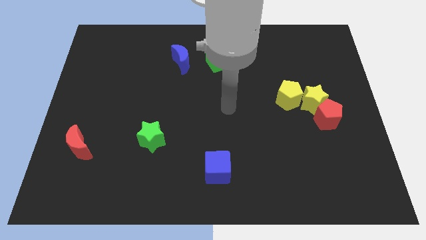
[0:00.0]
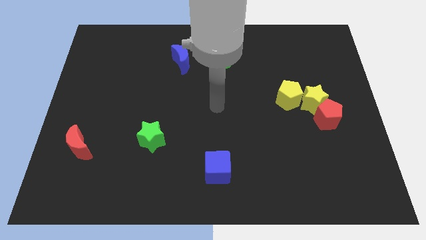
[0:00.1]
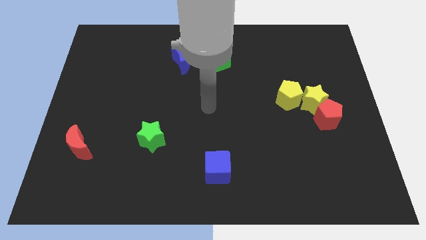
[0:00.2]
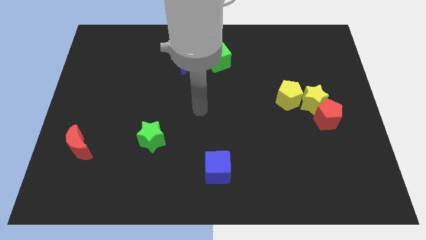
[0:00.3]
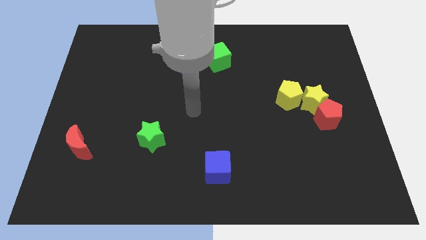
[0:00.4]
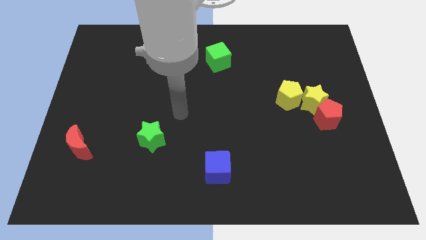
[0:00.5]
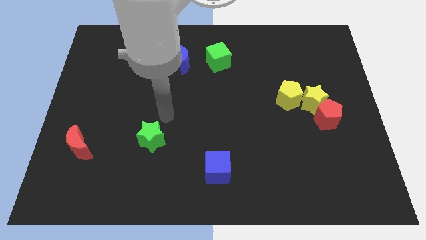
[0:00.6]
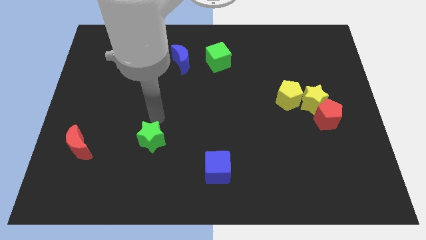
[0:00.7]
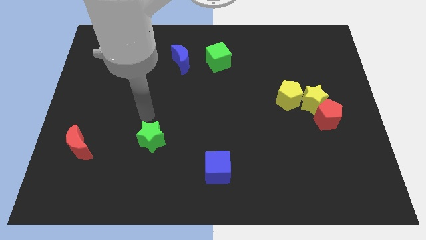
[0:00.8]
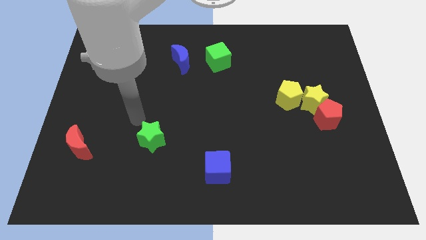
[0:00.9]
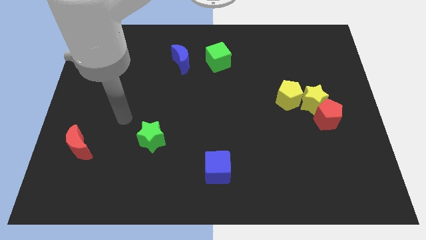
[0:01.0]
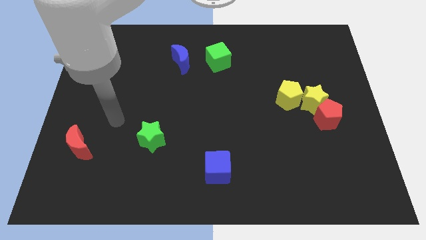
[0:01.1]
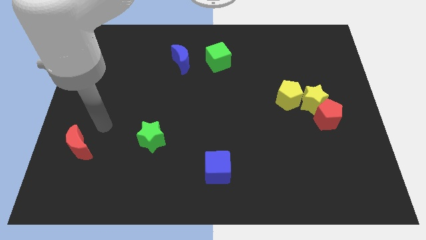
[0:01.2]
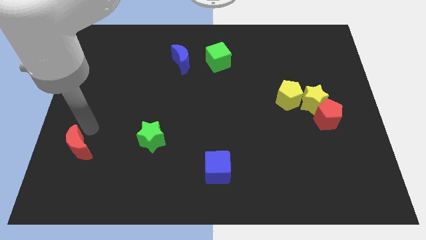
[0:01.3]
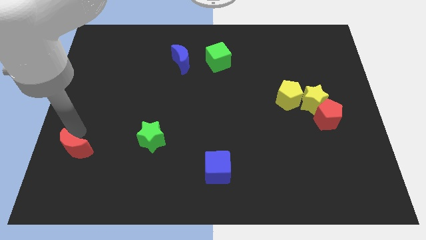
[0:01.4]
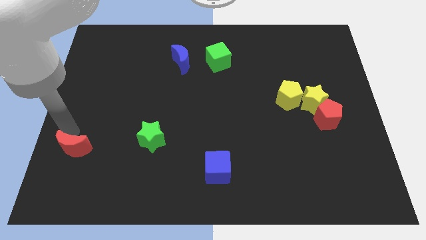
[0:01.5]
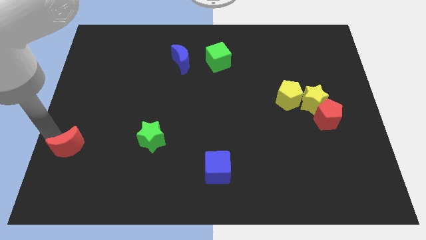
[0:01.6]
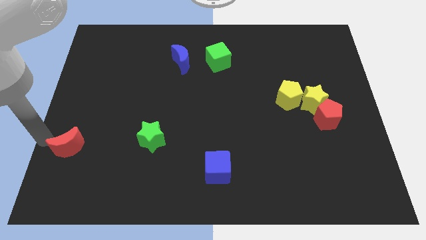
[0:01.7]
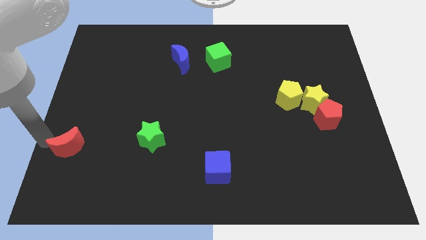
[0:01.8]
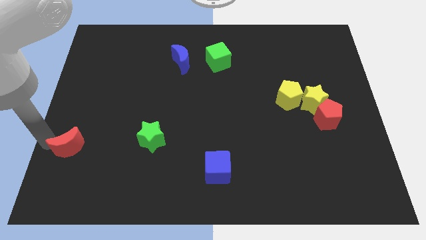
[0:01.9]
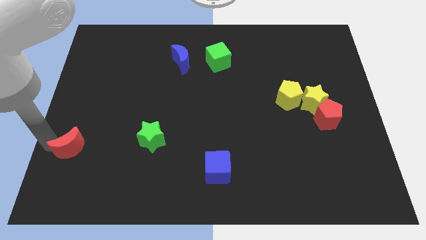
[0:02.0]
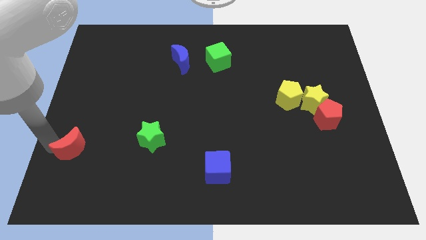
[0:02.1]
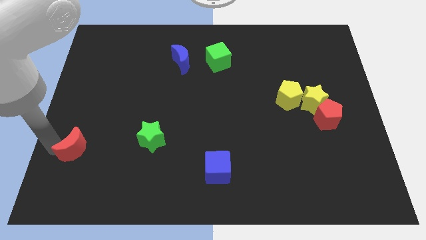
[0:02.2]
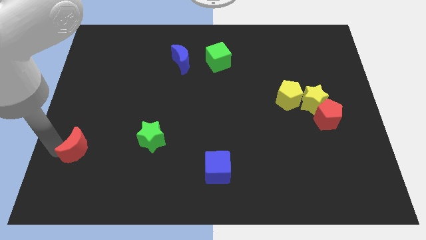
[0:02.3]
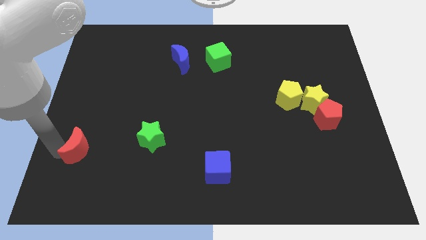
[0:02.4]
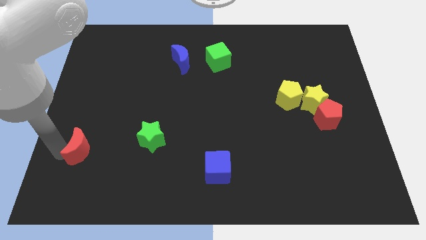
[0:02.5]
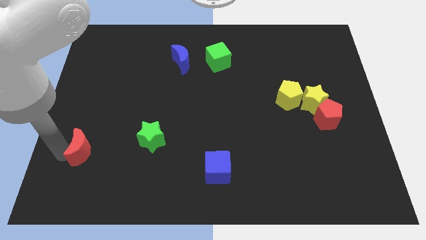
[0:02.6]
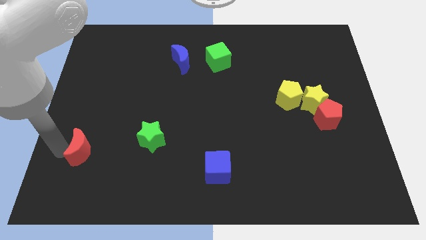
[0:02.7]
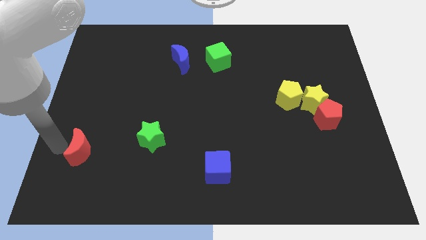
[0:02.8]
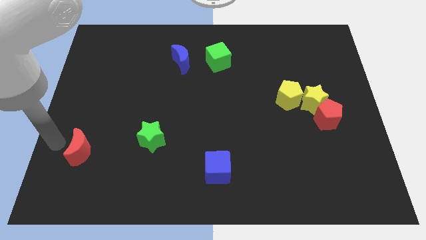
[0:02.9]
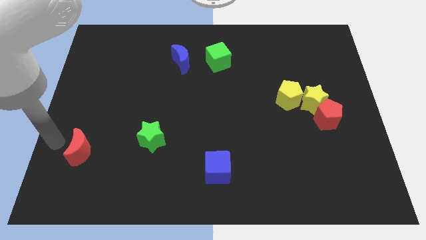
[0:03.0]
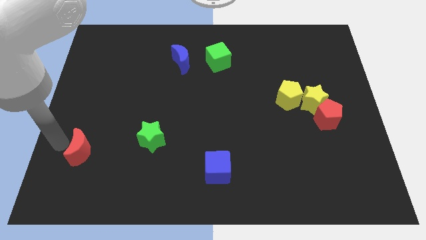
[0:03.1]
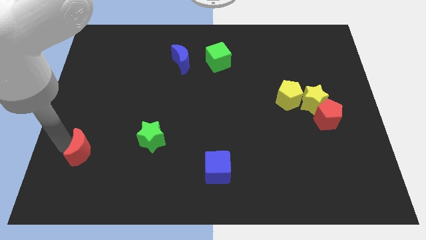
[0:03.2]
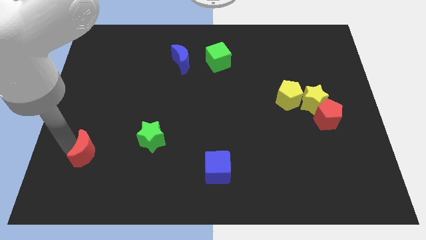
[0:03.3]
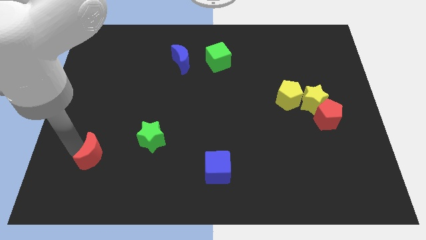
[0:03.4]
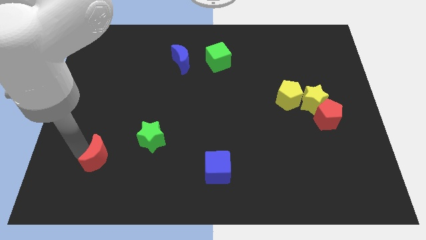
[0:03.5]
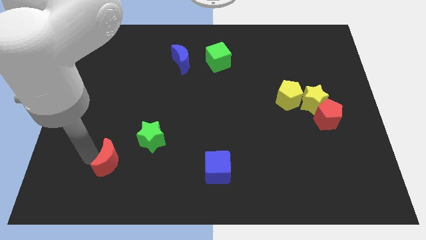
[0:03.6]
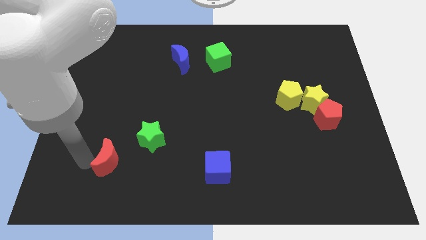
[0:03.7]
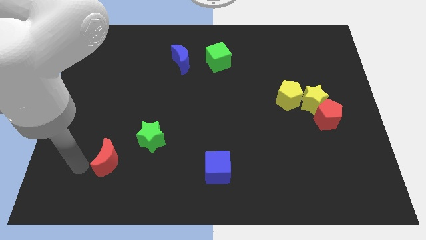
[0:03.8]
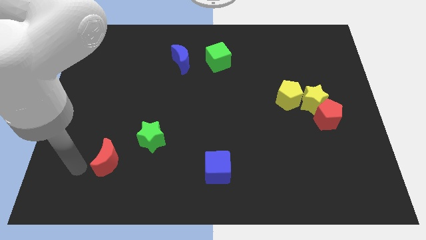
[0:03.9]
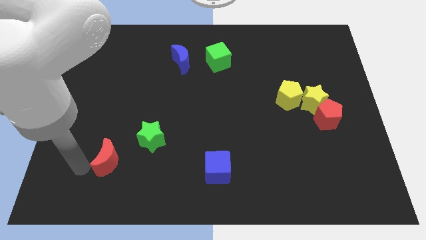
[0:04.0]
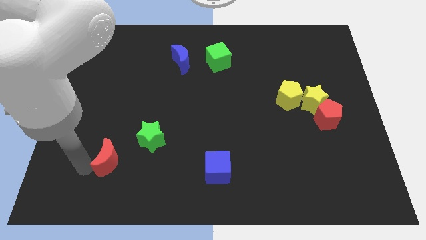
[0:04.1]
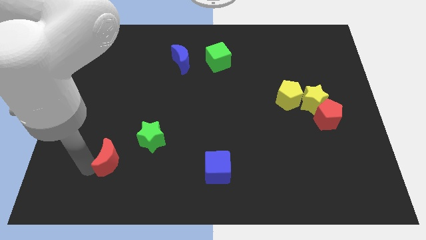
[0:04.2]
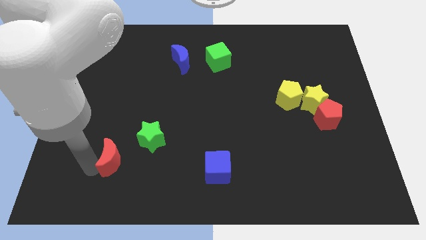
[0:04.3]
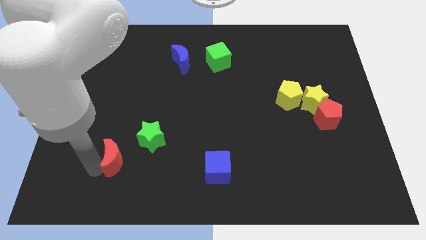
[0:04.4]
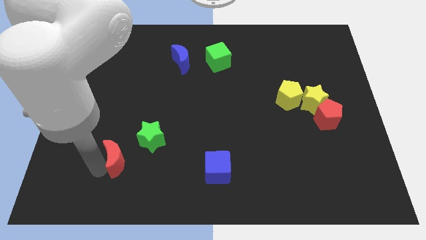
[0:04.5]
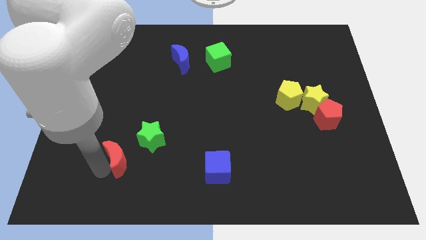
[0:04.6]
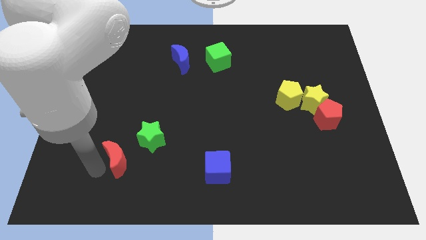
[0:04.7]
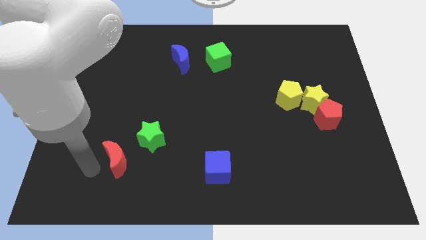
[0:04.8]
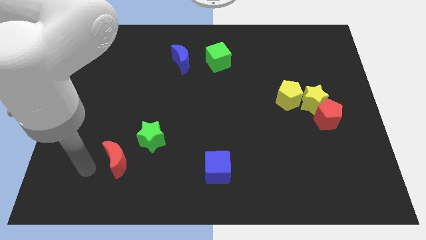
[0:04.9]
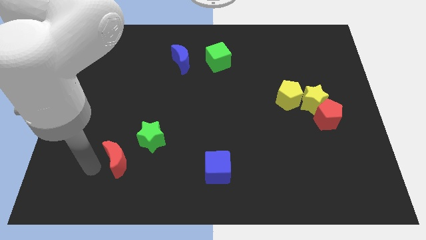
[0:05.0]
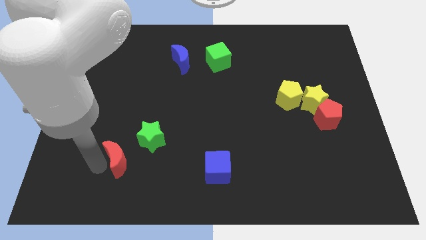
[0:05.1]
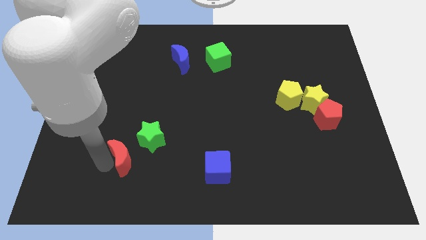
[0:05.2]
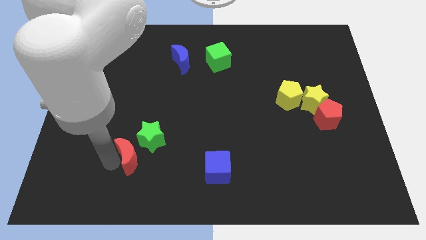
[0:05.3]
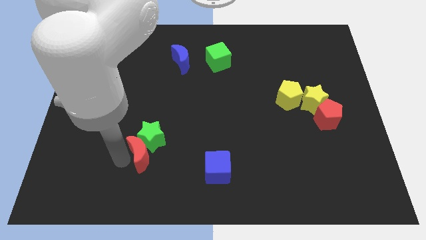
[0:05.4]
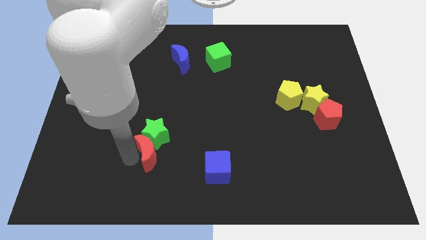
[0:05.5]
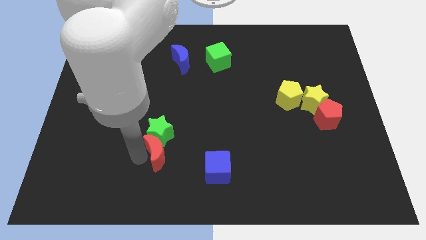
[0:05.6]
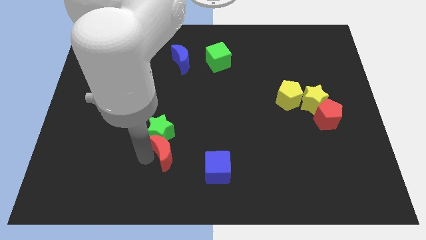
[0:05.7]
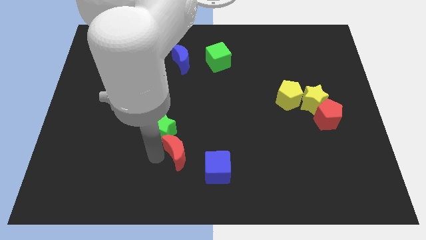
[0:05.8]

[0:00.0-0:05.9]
move the red moon right

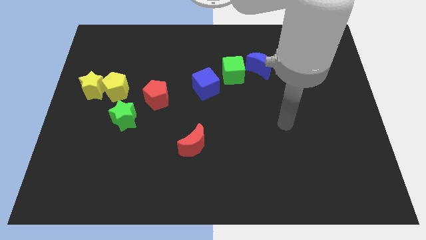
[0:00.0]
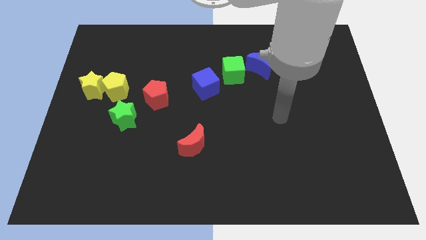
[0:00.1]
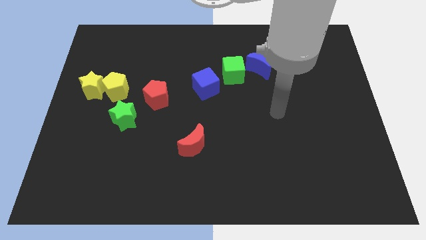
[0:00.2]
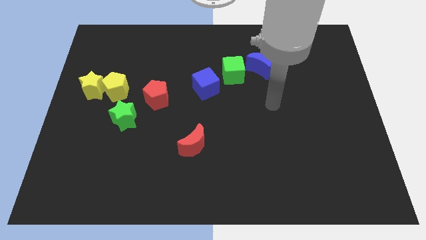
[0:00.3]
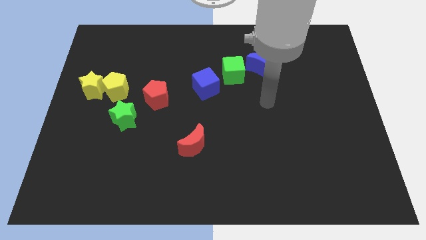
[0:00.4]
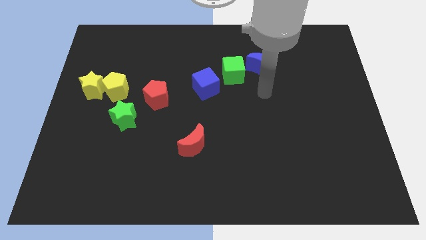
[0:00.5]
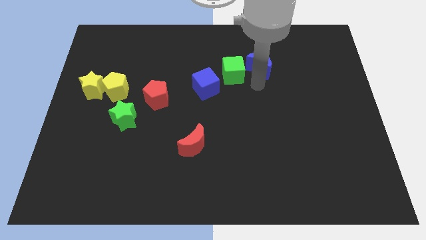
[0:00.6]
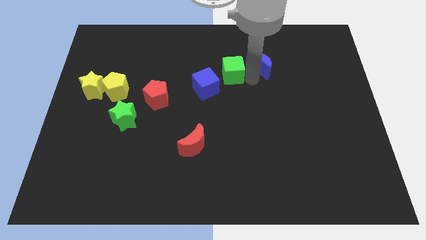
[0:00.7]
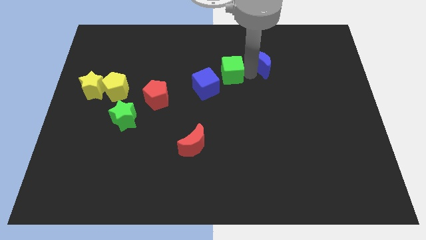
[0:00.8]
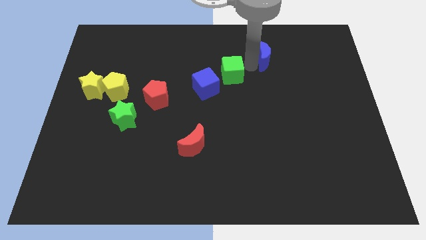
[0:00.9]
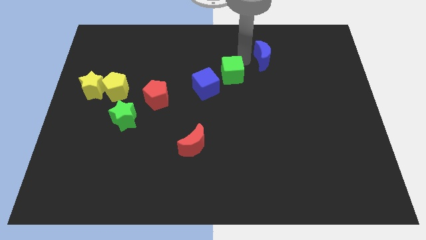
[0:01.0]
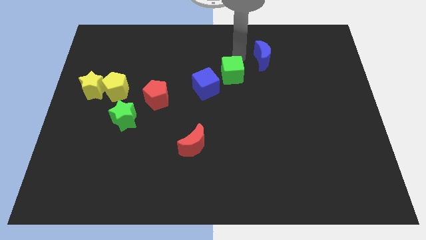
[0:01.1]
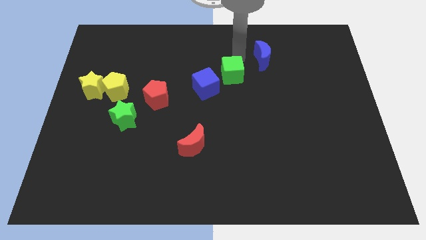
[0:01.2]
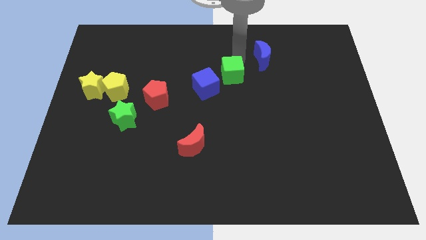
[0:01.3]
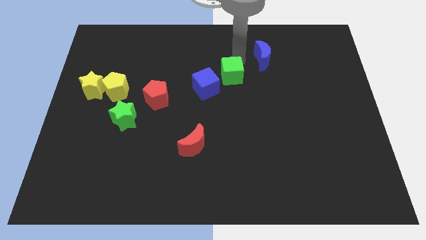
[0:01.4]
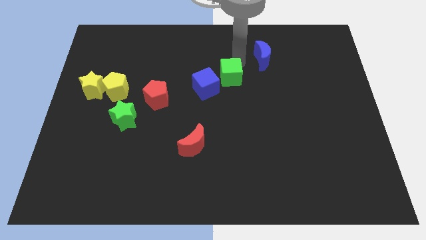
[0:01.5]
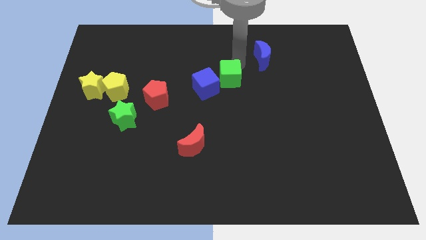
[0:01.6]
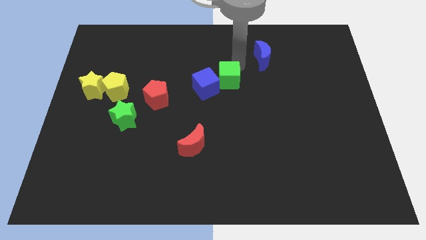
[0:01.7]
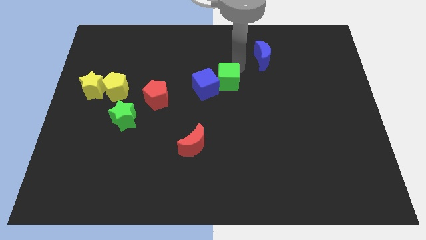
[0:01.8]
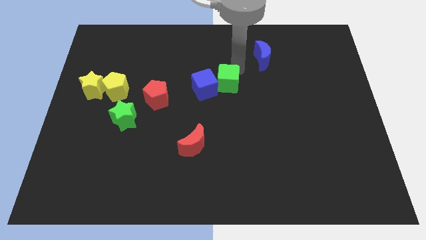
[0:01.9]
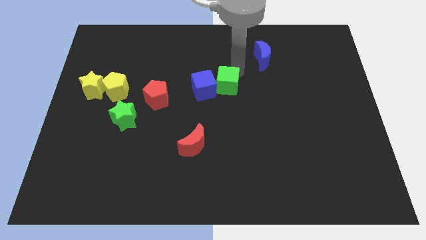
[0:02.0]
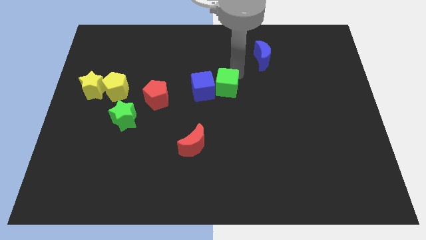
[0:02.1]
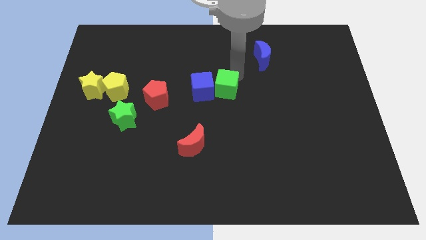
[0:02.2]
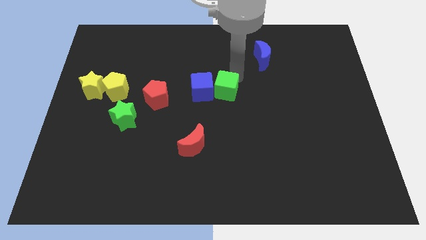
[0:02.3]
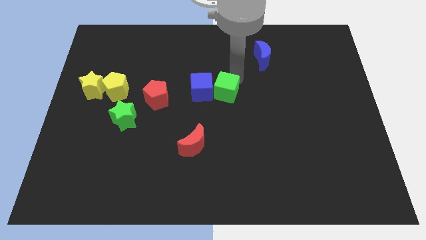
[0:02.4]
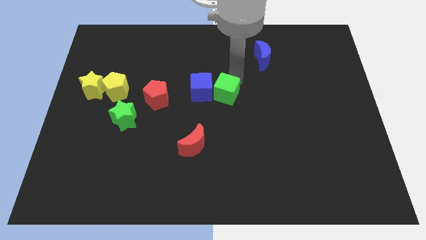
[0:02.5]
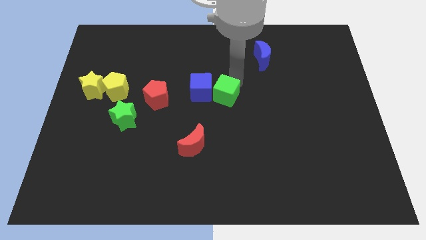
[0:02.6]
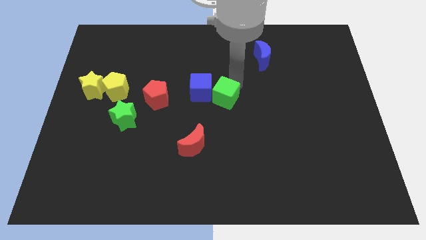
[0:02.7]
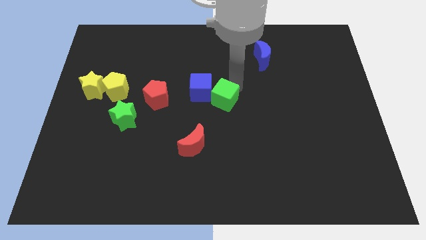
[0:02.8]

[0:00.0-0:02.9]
slightly push the green cube diagonally down and left
